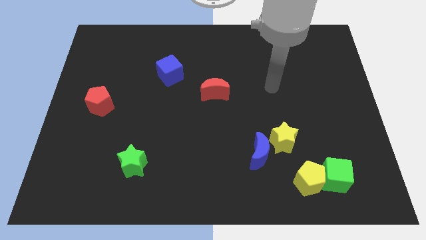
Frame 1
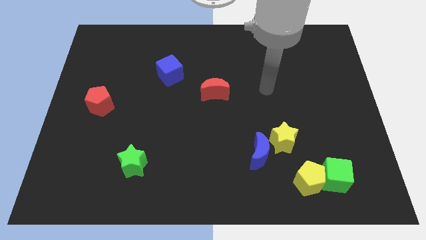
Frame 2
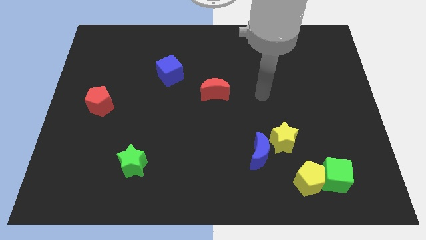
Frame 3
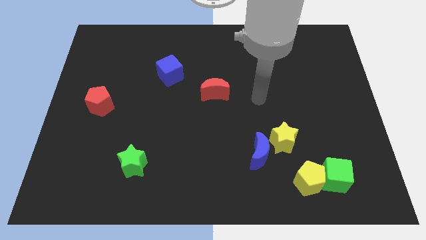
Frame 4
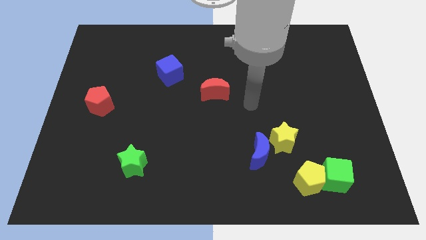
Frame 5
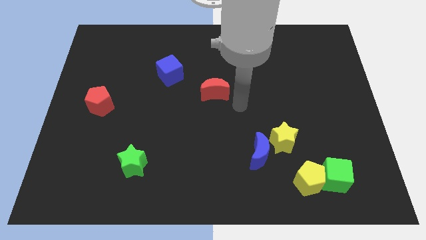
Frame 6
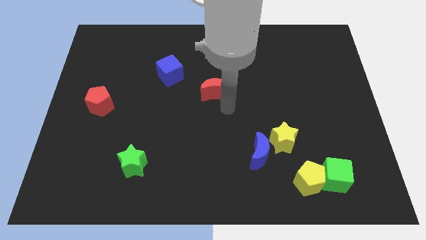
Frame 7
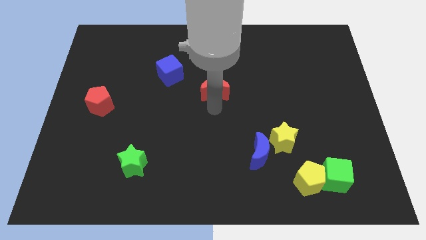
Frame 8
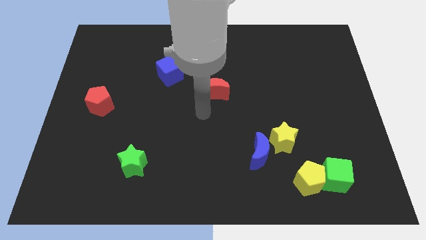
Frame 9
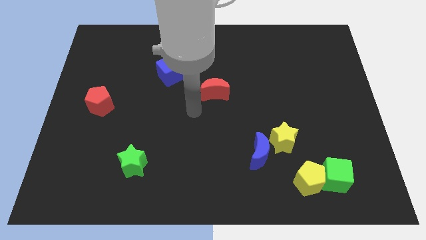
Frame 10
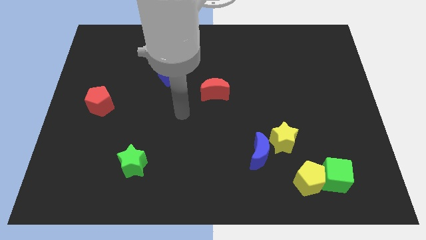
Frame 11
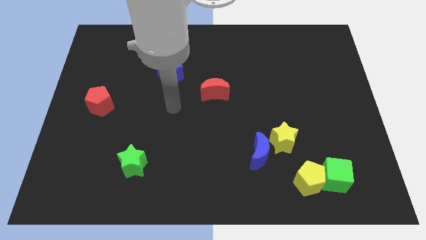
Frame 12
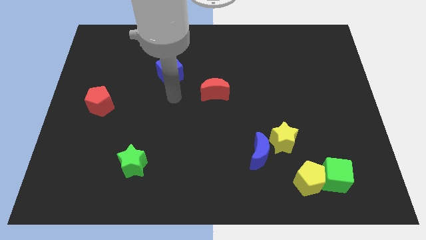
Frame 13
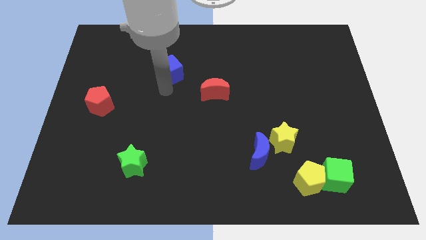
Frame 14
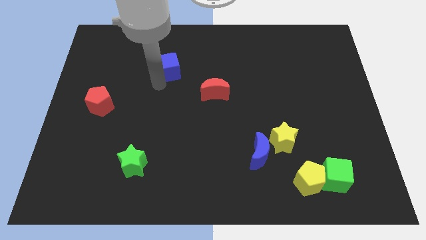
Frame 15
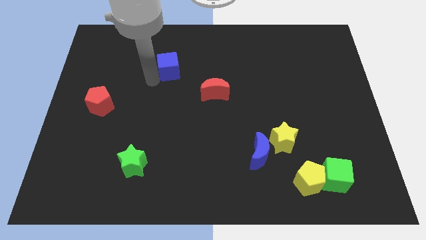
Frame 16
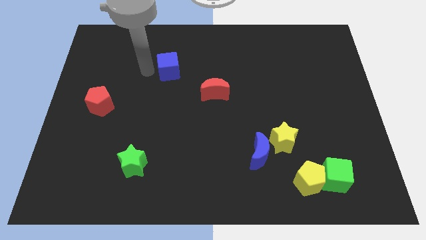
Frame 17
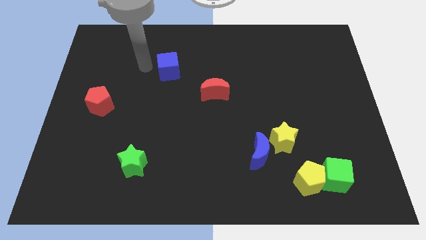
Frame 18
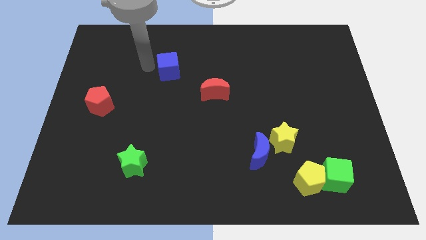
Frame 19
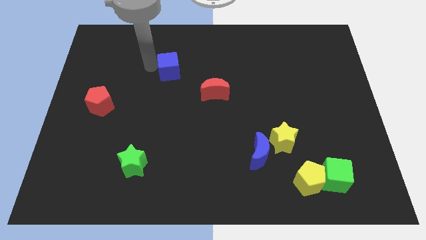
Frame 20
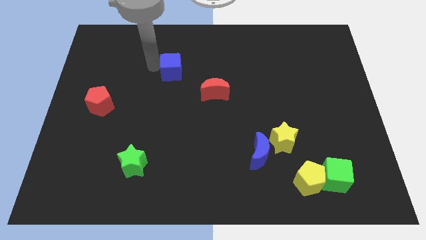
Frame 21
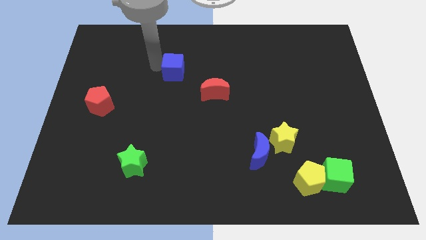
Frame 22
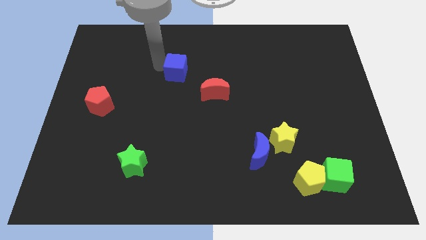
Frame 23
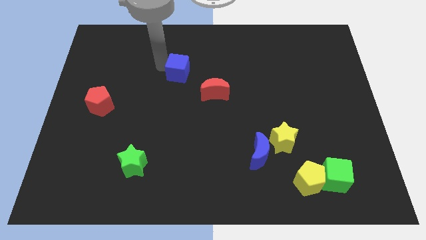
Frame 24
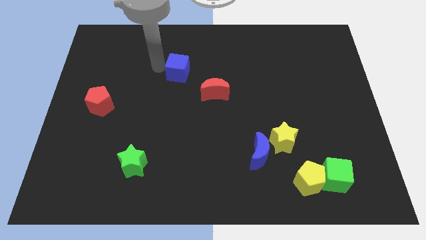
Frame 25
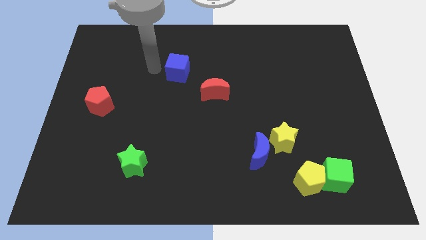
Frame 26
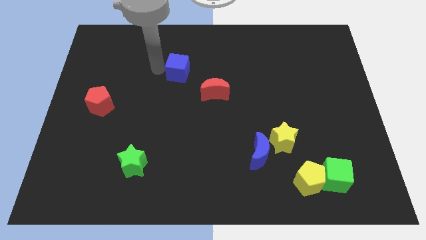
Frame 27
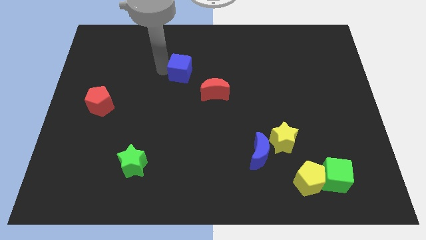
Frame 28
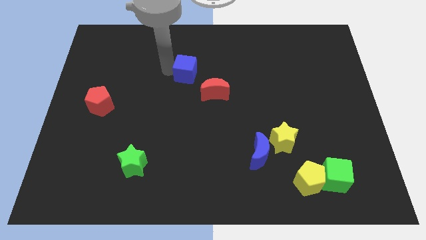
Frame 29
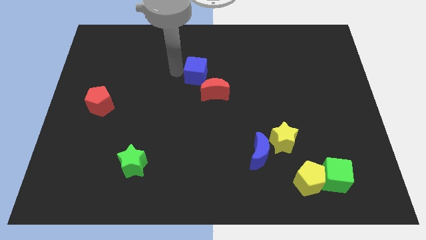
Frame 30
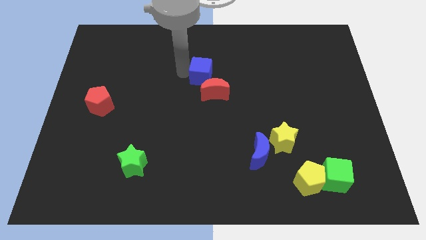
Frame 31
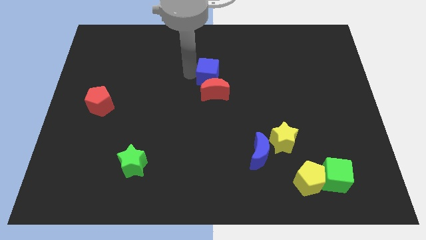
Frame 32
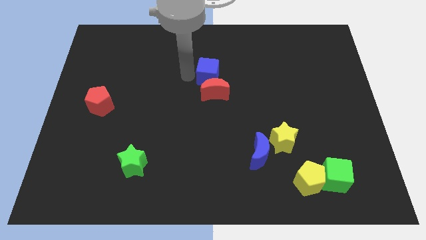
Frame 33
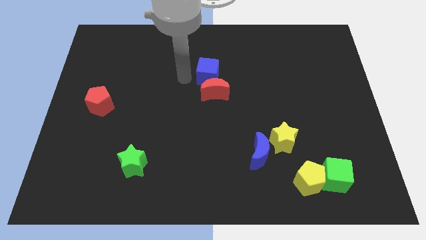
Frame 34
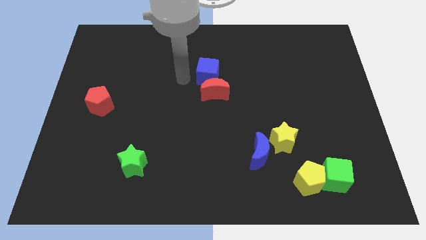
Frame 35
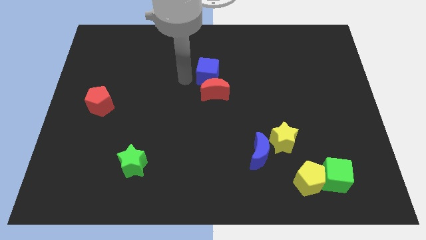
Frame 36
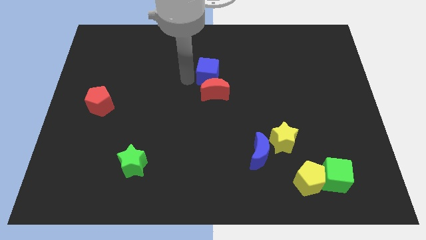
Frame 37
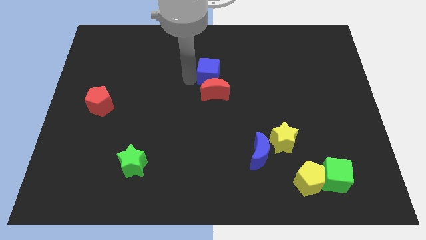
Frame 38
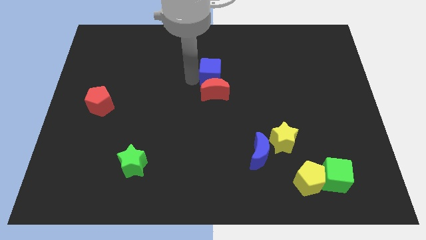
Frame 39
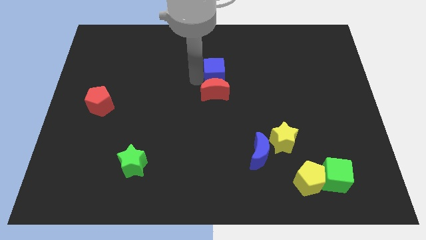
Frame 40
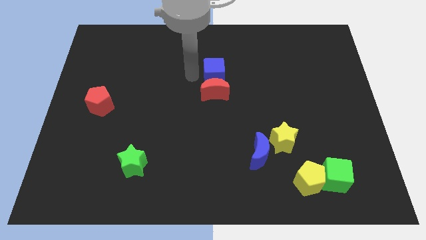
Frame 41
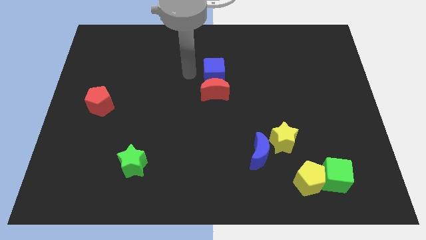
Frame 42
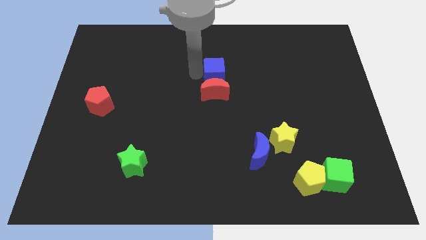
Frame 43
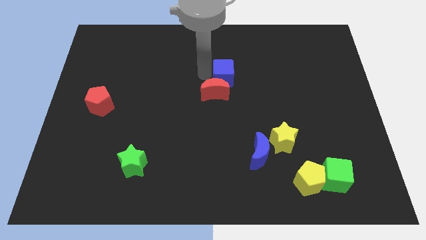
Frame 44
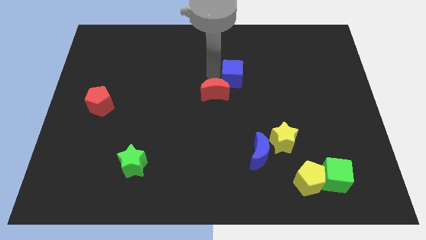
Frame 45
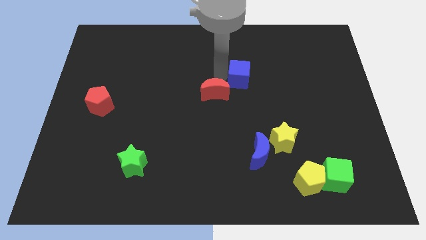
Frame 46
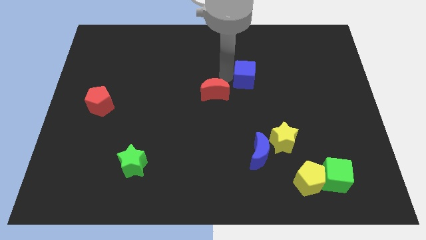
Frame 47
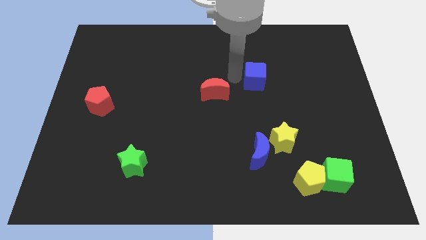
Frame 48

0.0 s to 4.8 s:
push the blue cube right

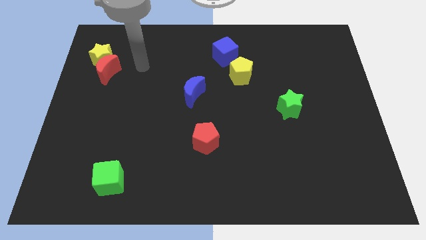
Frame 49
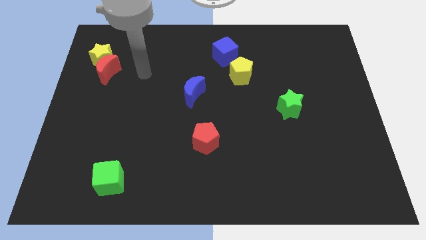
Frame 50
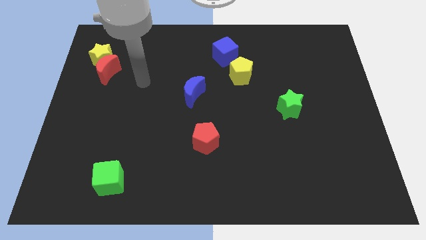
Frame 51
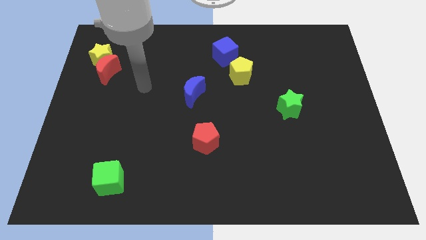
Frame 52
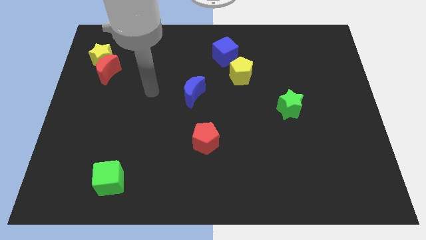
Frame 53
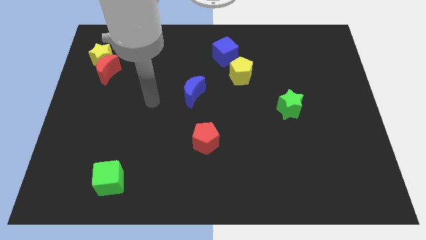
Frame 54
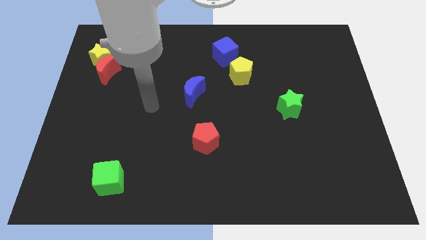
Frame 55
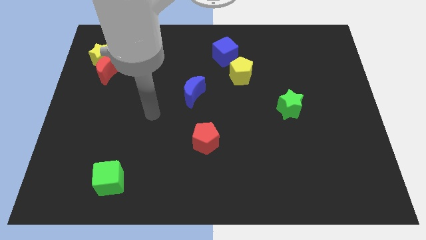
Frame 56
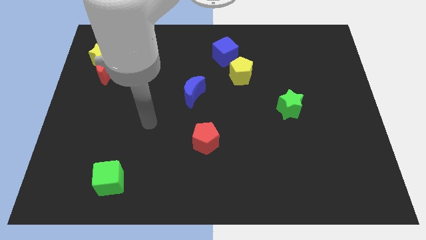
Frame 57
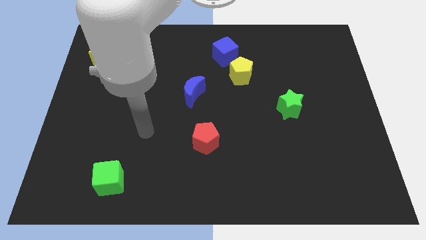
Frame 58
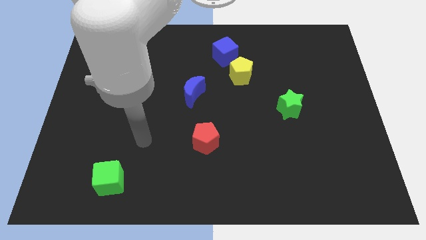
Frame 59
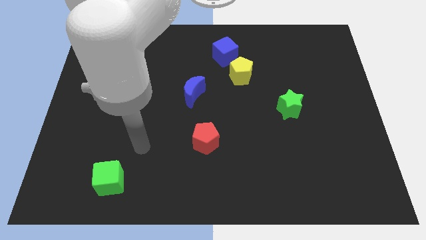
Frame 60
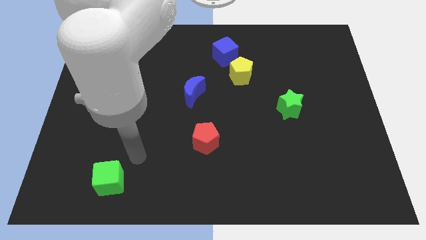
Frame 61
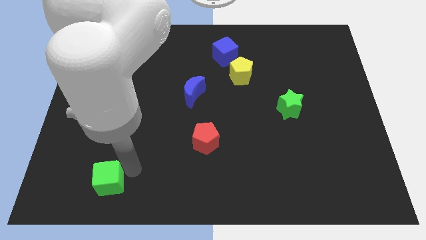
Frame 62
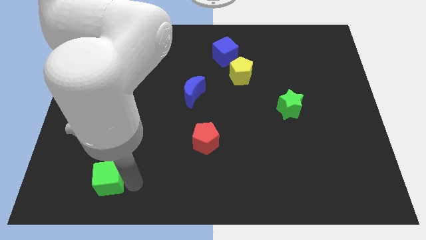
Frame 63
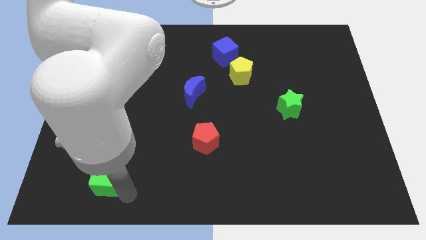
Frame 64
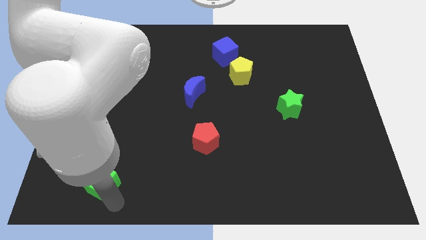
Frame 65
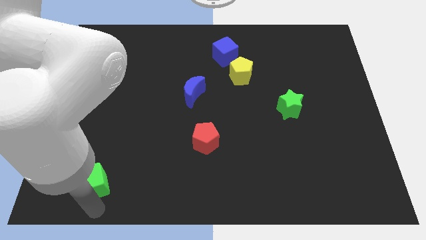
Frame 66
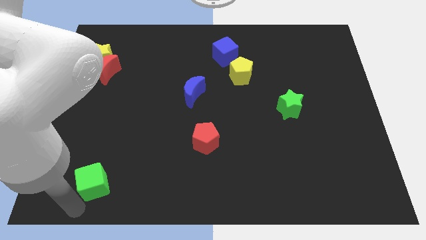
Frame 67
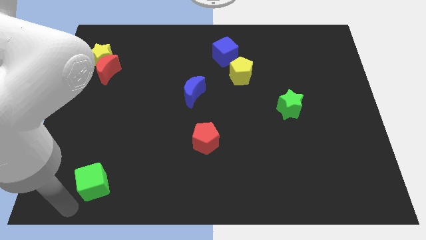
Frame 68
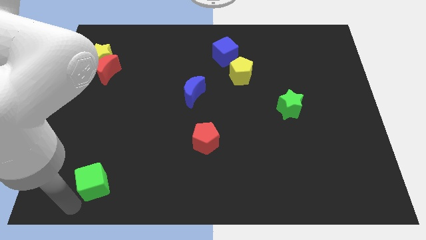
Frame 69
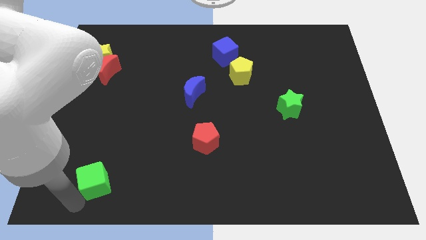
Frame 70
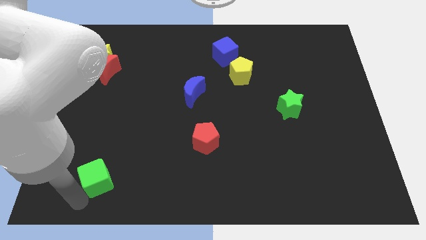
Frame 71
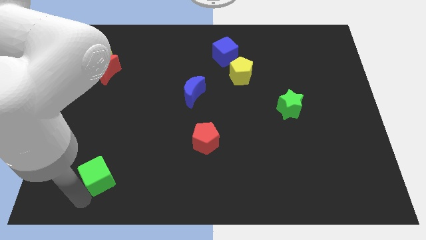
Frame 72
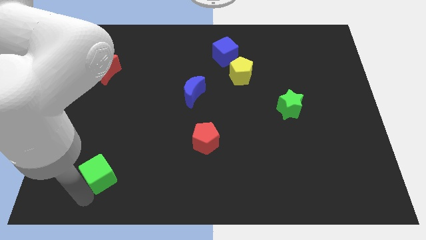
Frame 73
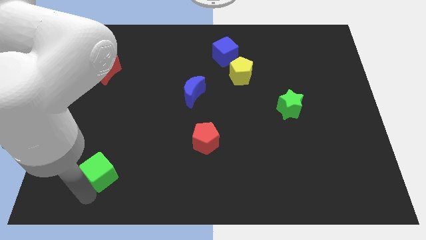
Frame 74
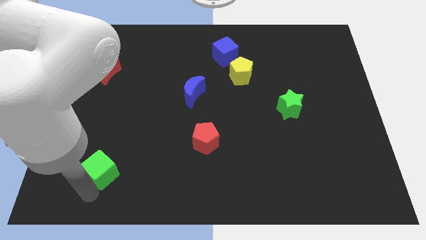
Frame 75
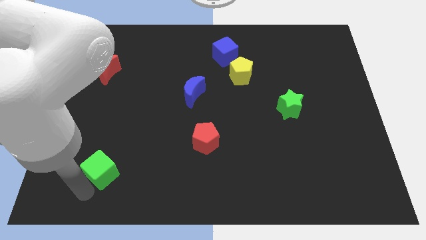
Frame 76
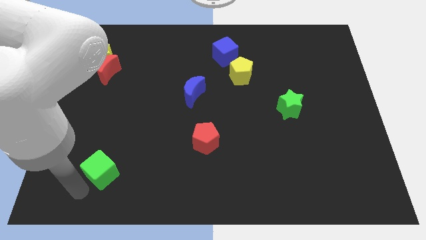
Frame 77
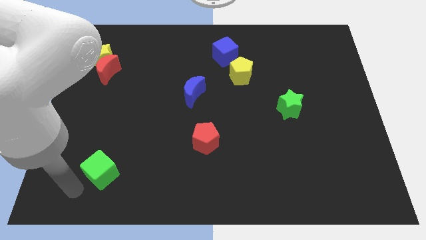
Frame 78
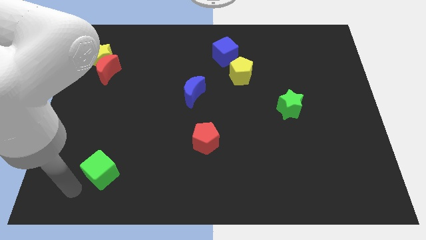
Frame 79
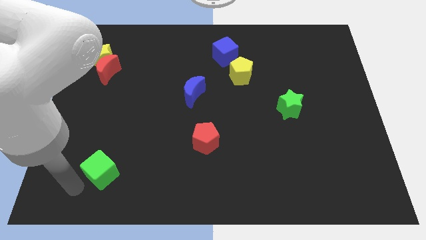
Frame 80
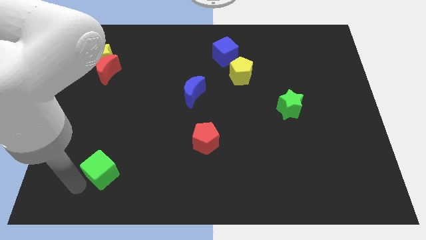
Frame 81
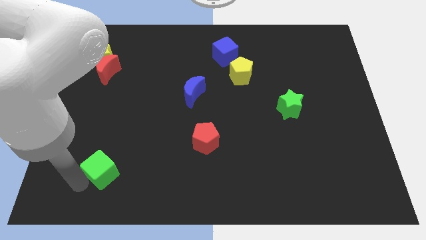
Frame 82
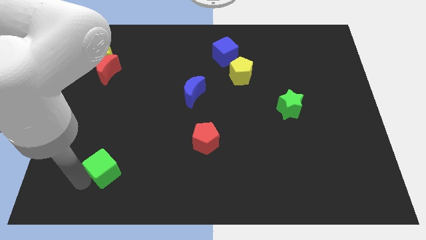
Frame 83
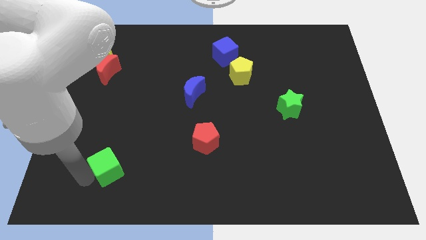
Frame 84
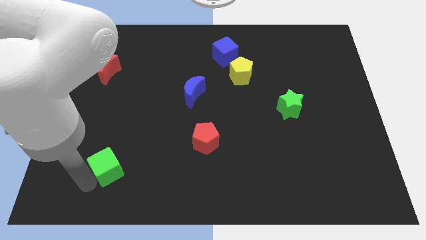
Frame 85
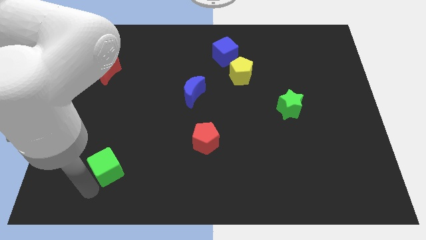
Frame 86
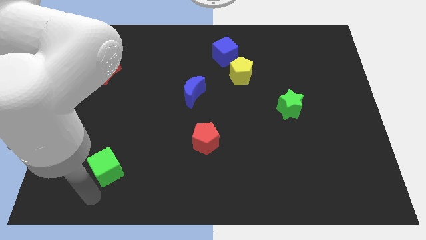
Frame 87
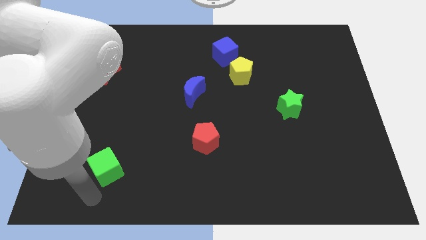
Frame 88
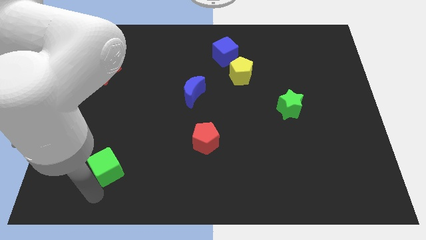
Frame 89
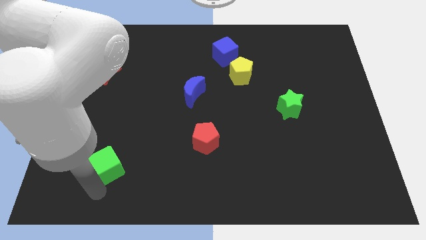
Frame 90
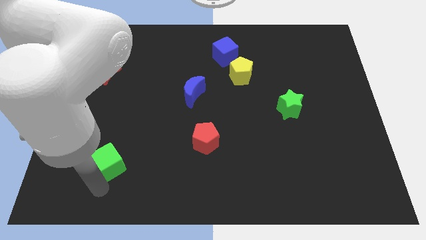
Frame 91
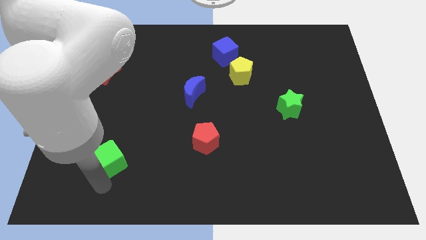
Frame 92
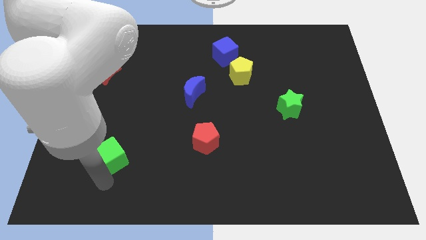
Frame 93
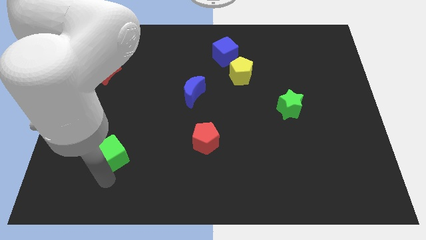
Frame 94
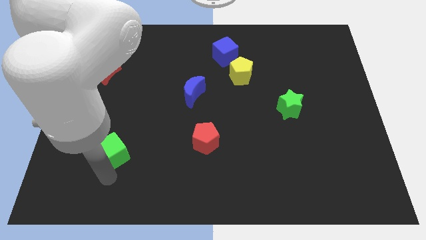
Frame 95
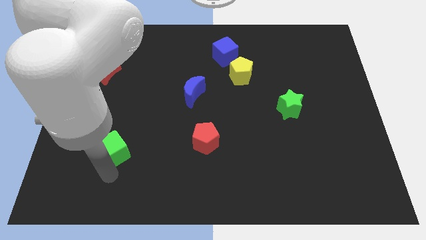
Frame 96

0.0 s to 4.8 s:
slide the green cube upwards slightly
